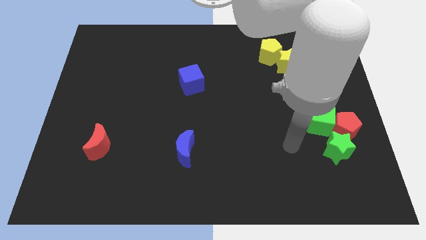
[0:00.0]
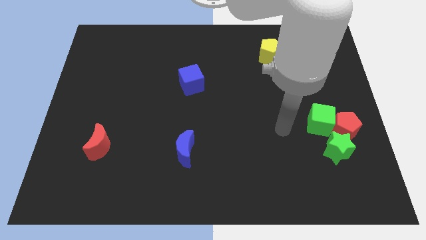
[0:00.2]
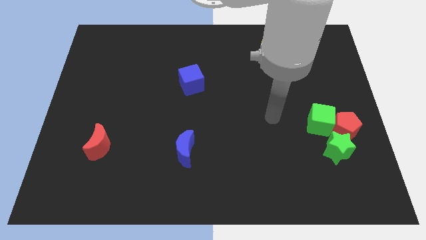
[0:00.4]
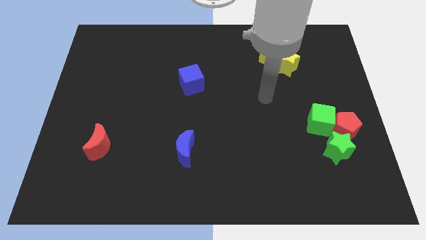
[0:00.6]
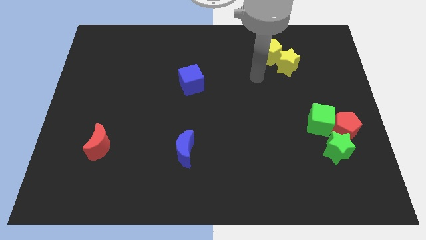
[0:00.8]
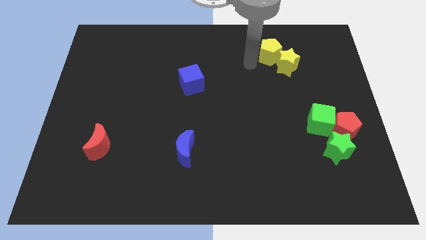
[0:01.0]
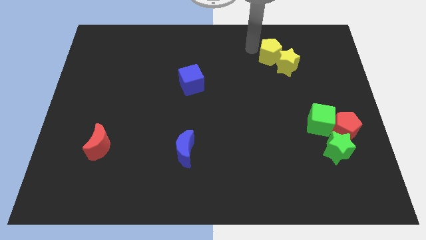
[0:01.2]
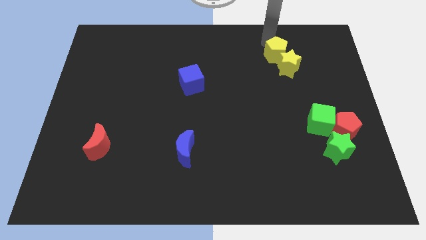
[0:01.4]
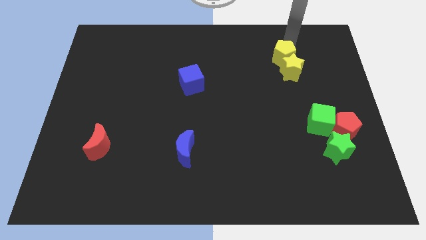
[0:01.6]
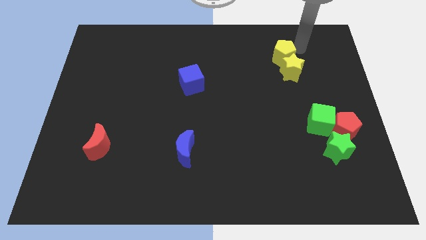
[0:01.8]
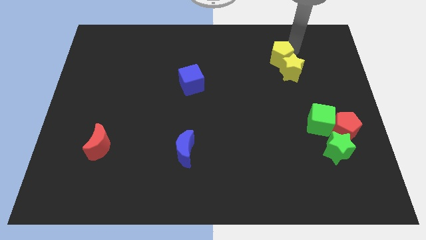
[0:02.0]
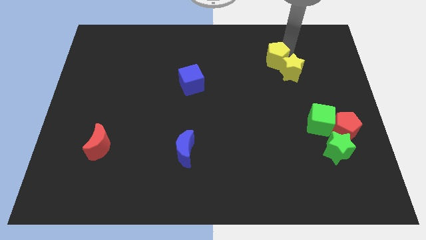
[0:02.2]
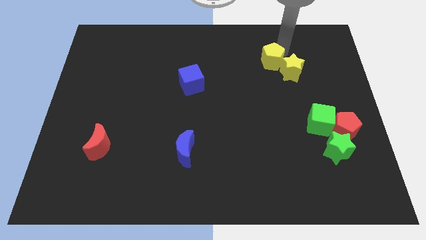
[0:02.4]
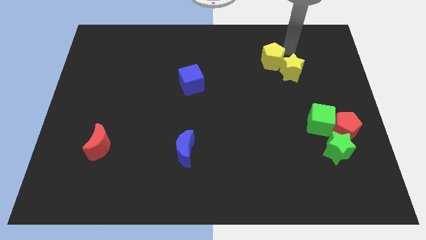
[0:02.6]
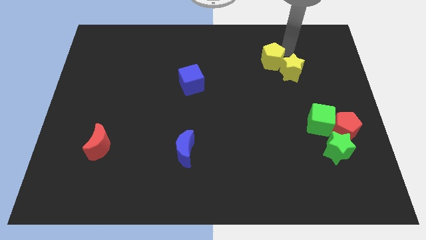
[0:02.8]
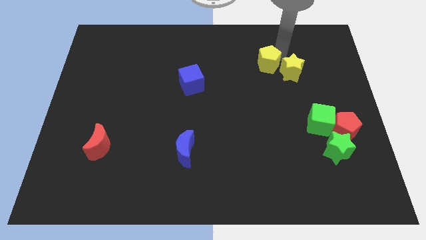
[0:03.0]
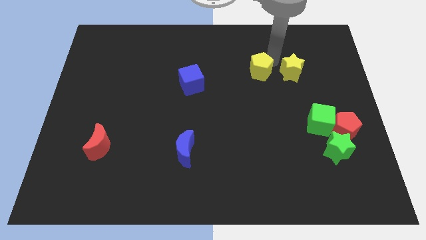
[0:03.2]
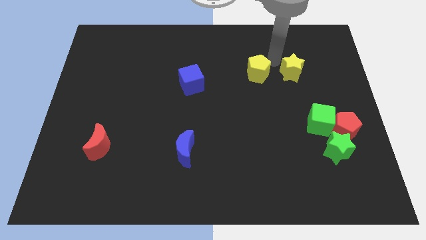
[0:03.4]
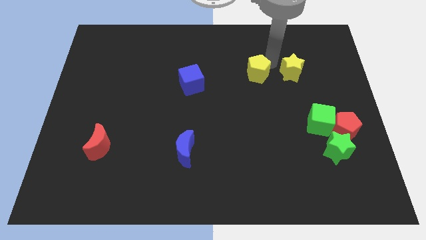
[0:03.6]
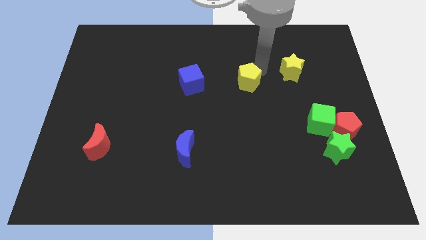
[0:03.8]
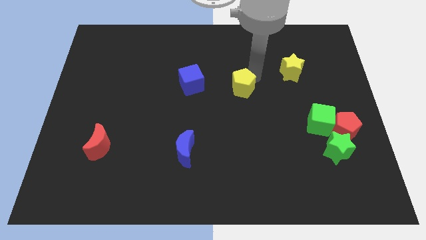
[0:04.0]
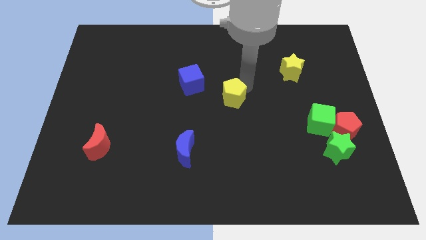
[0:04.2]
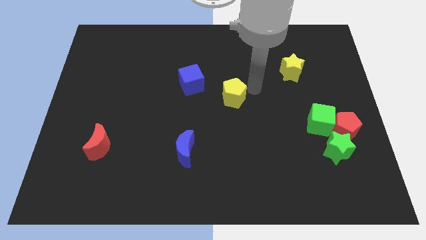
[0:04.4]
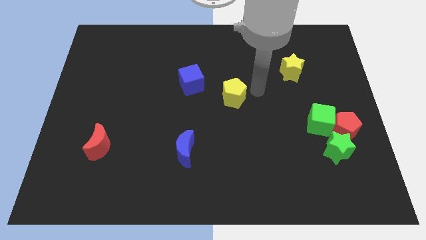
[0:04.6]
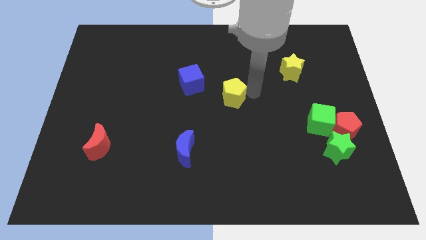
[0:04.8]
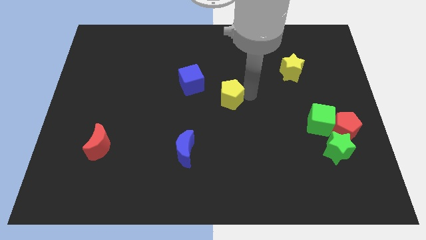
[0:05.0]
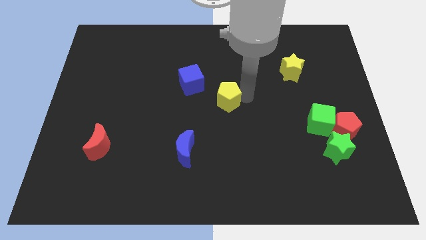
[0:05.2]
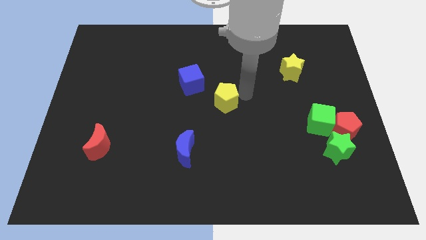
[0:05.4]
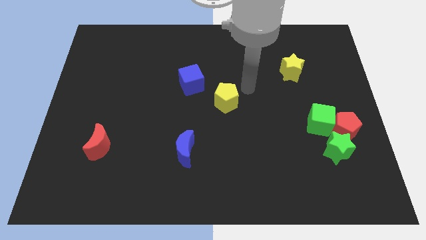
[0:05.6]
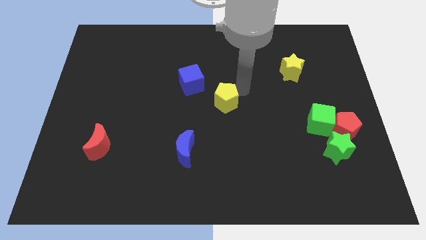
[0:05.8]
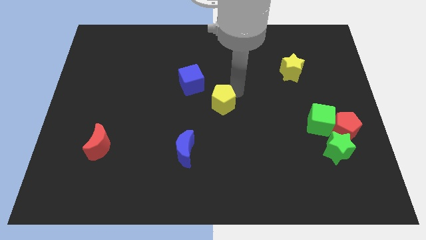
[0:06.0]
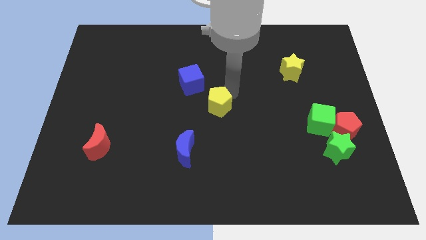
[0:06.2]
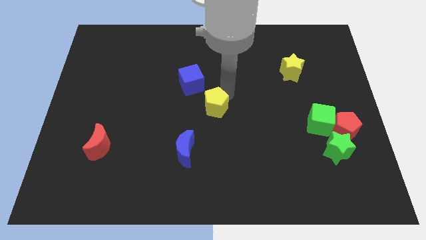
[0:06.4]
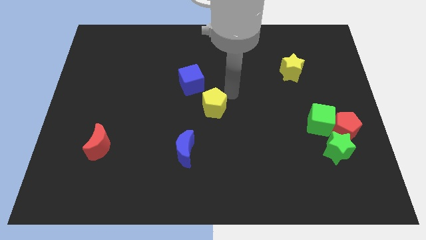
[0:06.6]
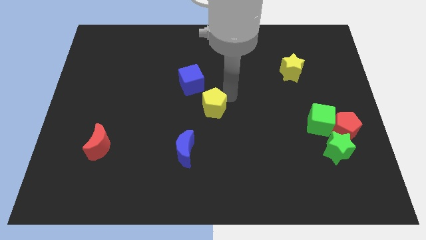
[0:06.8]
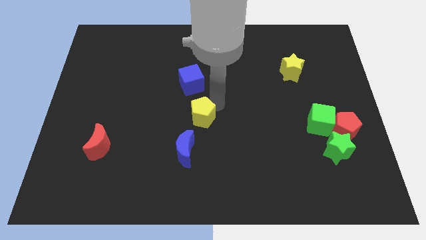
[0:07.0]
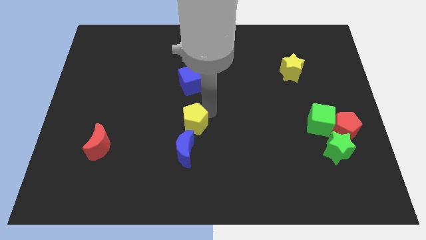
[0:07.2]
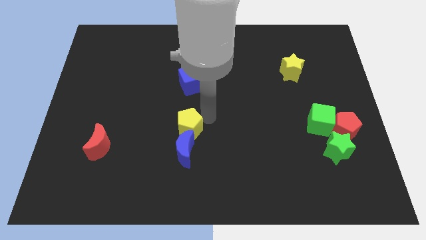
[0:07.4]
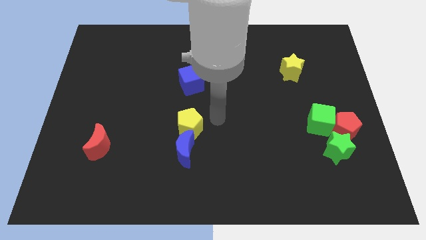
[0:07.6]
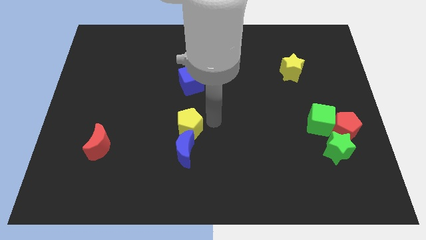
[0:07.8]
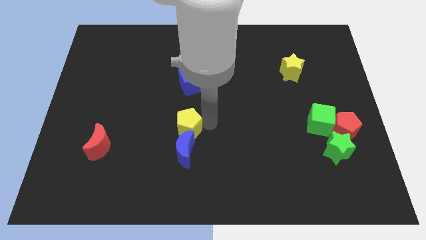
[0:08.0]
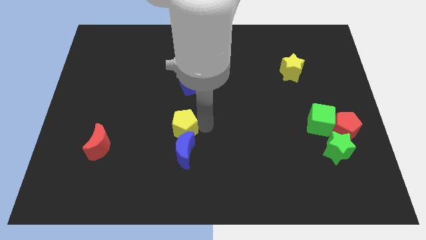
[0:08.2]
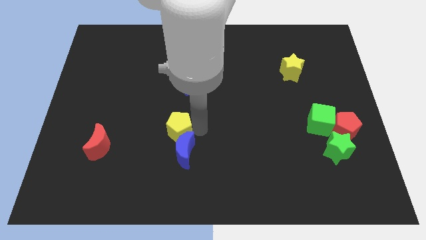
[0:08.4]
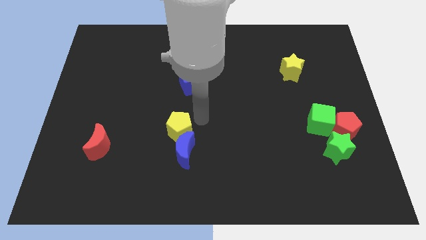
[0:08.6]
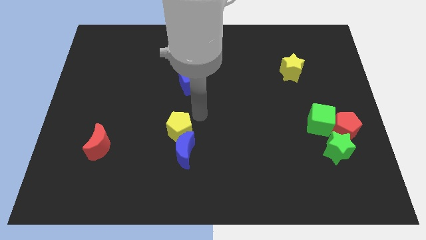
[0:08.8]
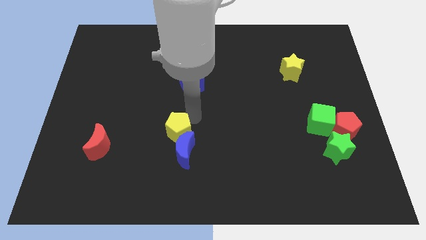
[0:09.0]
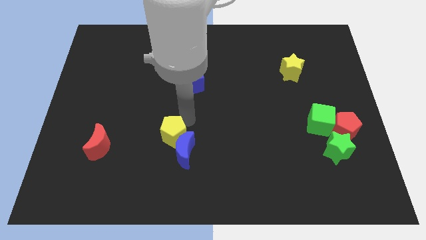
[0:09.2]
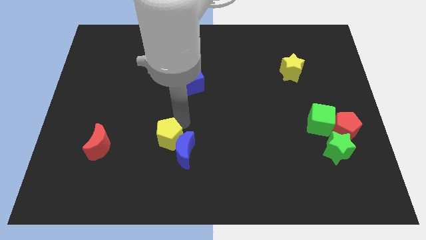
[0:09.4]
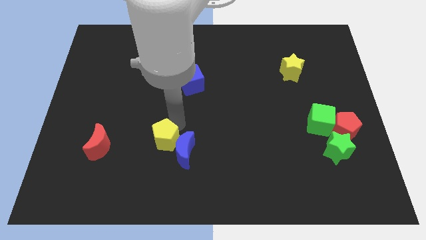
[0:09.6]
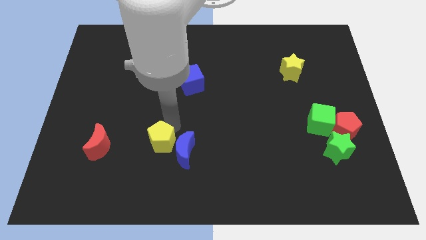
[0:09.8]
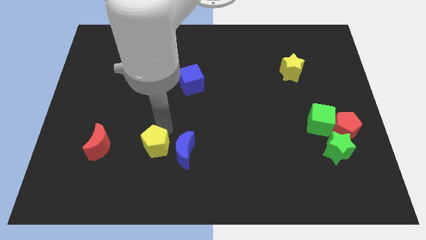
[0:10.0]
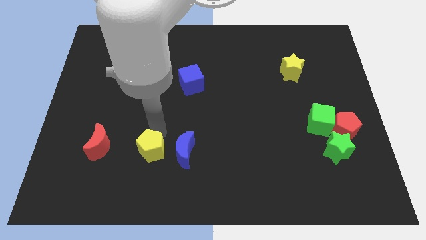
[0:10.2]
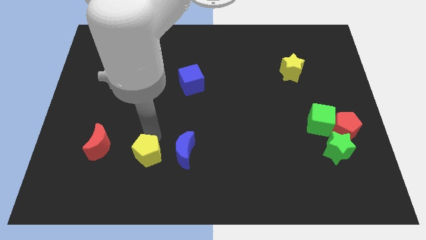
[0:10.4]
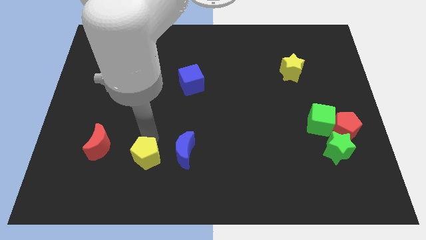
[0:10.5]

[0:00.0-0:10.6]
push the yellow pentagon to the bottom left side of the blue moon

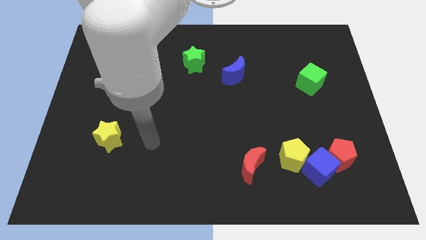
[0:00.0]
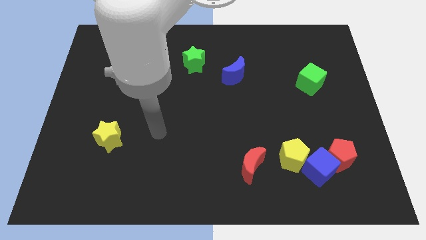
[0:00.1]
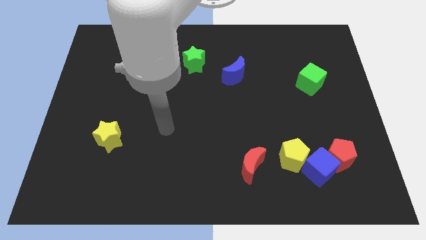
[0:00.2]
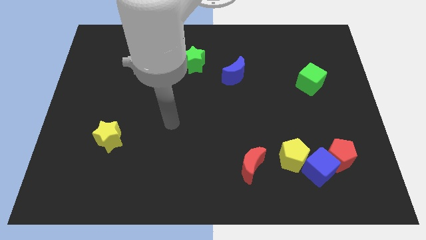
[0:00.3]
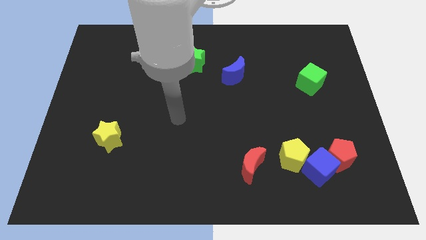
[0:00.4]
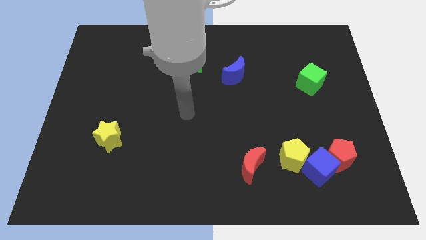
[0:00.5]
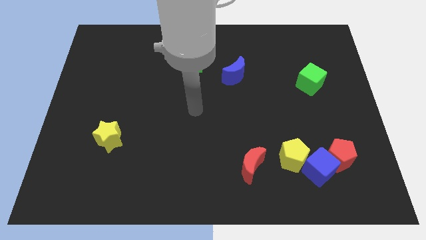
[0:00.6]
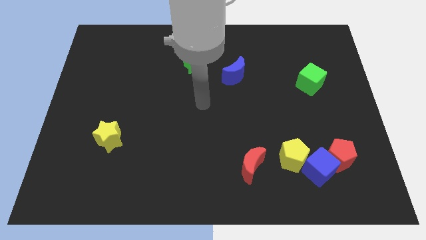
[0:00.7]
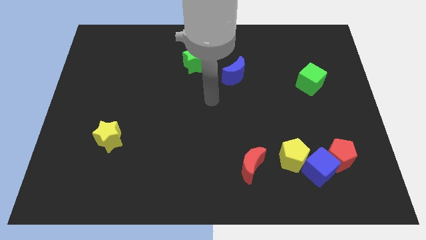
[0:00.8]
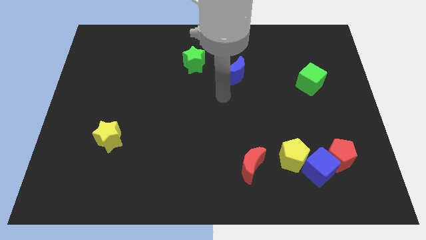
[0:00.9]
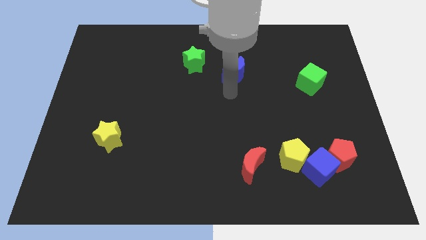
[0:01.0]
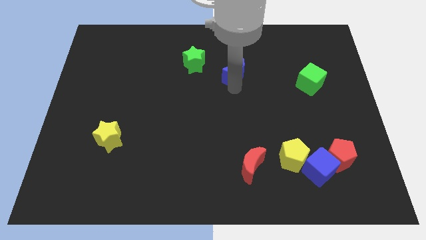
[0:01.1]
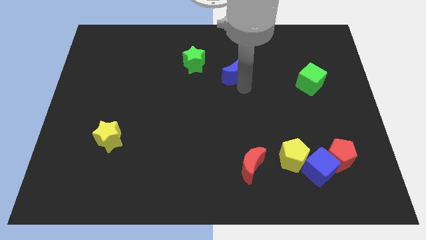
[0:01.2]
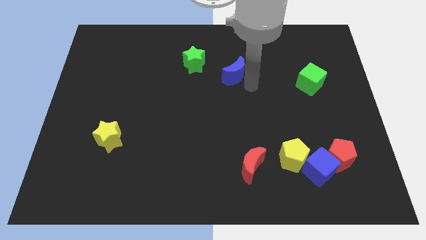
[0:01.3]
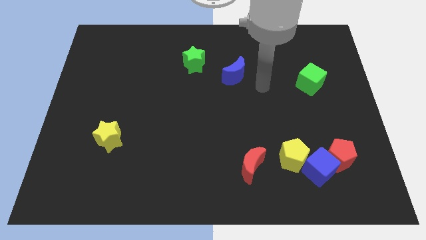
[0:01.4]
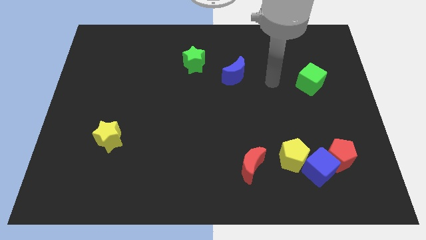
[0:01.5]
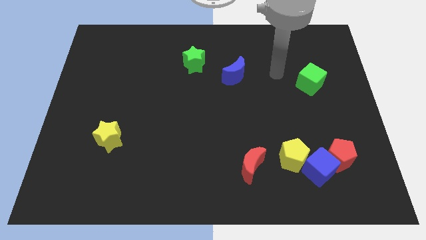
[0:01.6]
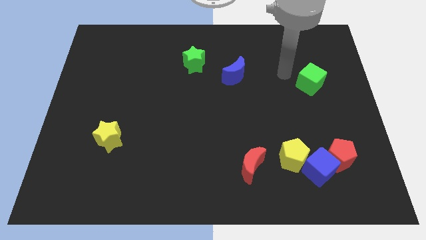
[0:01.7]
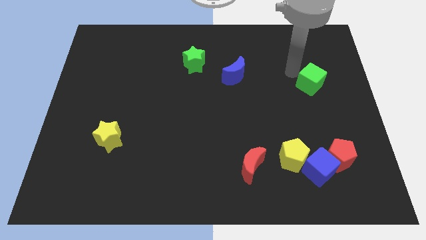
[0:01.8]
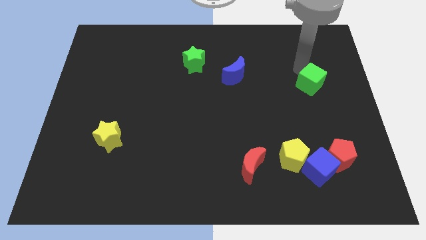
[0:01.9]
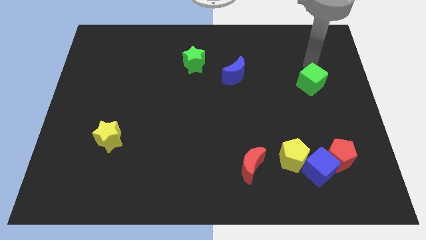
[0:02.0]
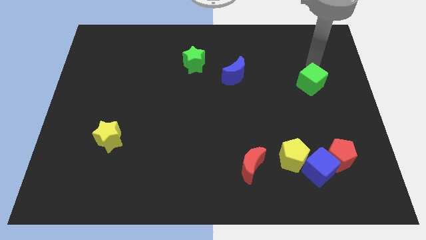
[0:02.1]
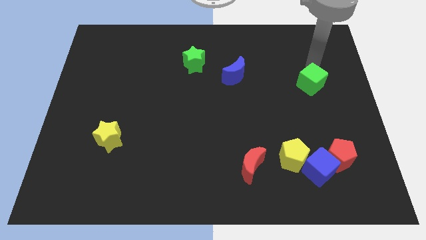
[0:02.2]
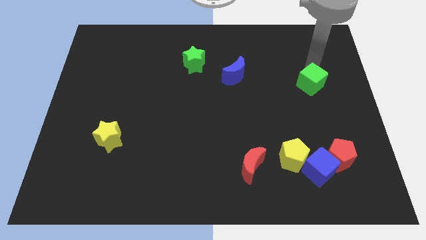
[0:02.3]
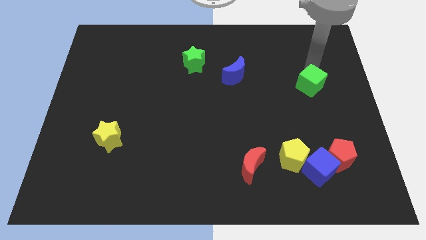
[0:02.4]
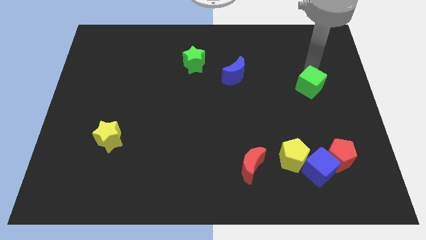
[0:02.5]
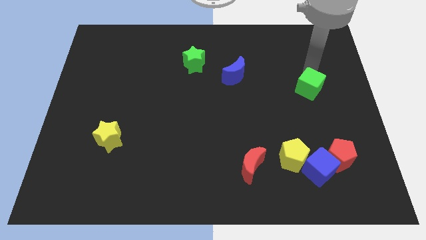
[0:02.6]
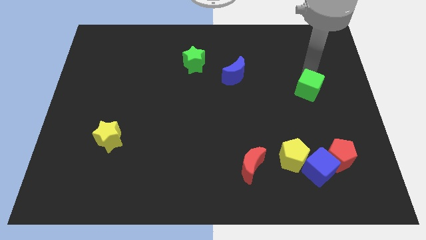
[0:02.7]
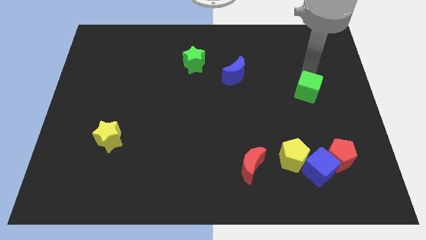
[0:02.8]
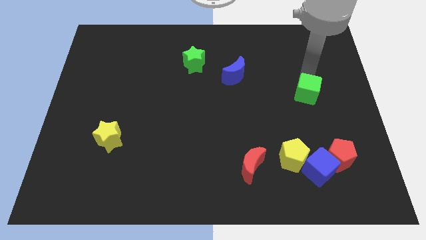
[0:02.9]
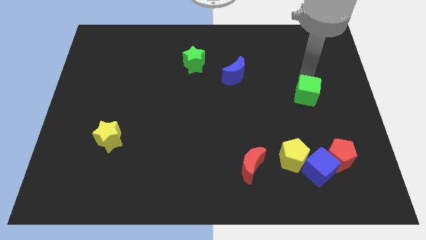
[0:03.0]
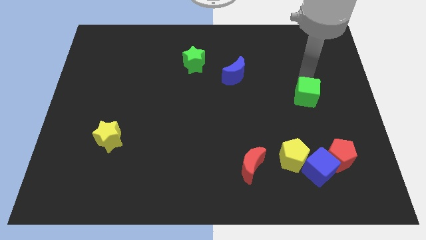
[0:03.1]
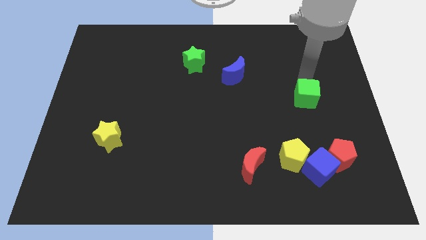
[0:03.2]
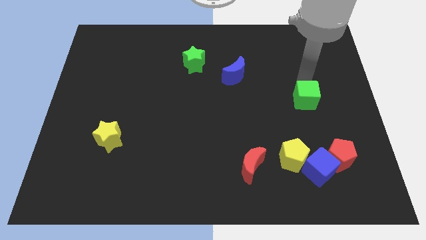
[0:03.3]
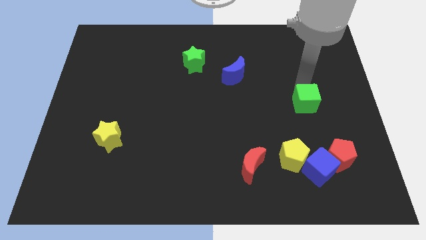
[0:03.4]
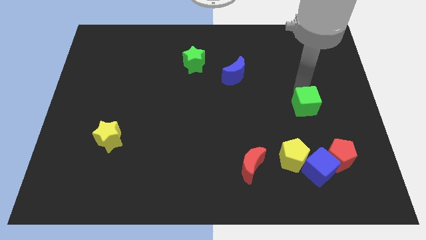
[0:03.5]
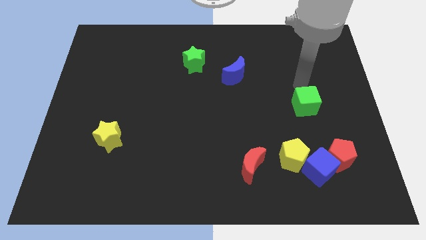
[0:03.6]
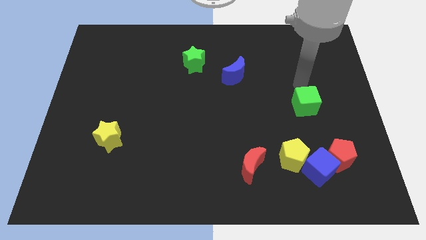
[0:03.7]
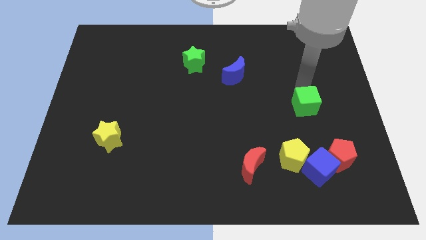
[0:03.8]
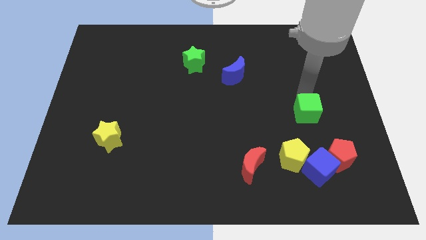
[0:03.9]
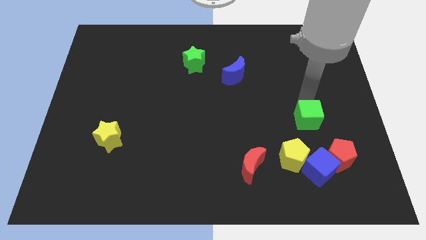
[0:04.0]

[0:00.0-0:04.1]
slide the green cube diagonally up and to the right of the yellow pentagon
